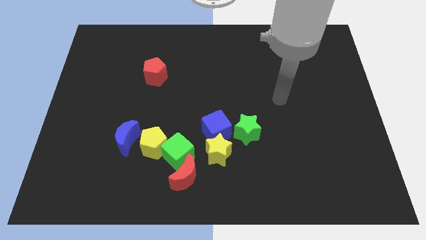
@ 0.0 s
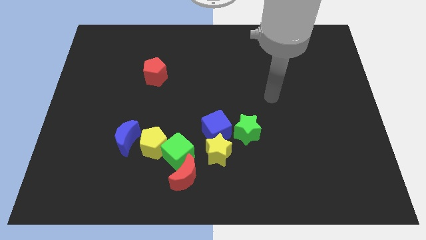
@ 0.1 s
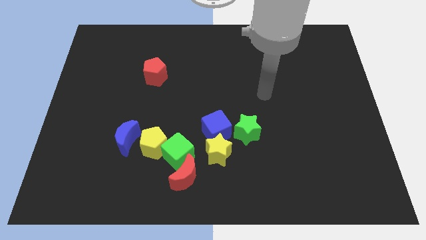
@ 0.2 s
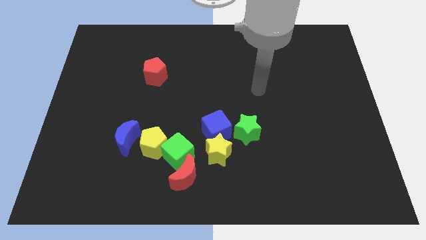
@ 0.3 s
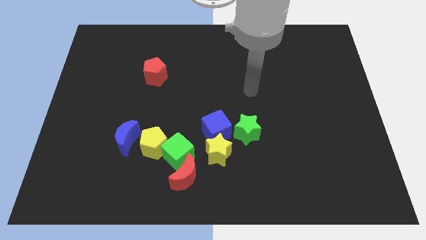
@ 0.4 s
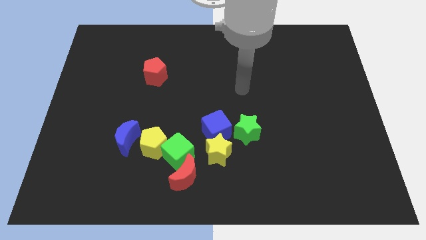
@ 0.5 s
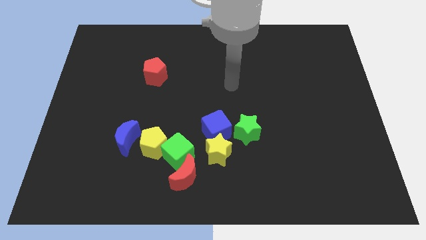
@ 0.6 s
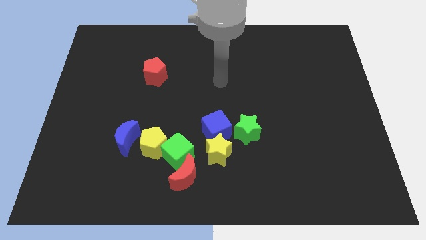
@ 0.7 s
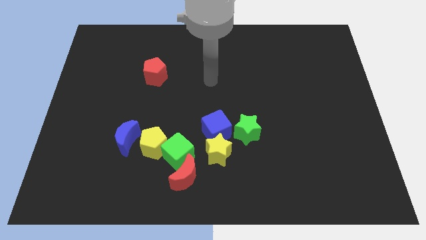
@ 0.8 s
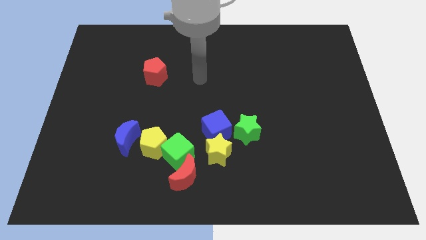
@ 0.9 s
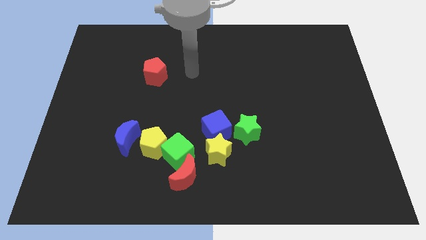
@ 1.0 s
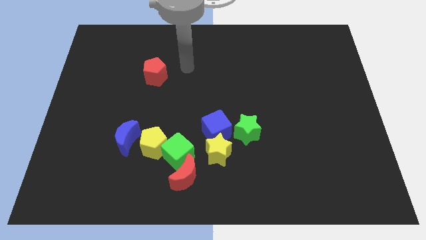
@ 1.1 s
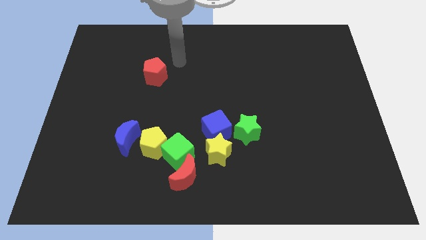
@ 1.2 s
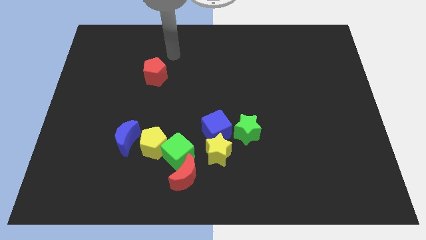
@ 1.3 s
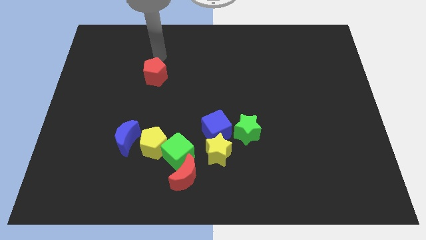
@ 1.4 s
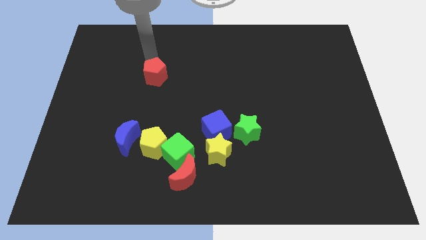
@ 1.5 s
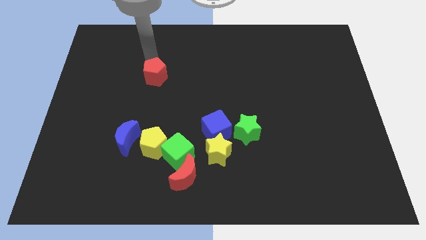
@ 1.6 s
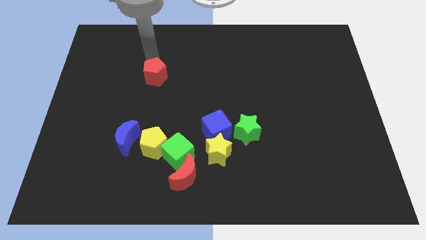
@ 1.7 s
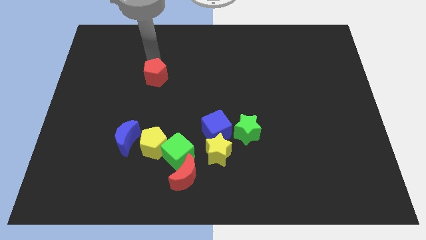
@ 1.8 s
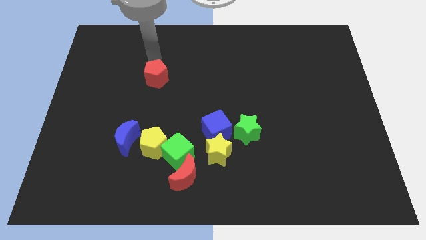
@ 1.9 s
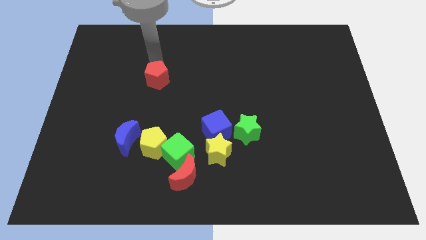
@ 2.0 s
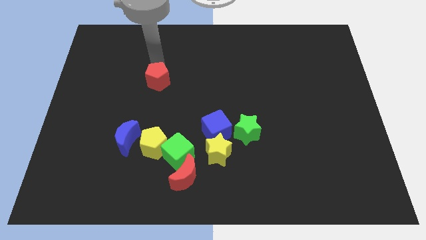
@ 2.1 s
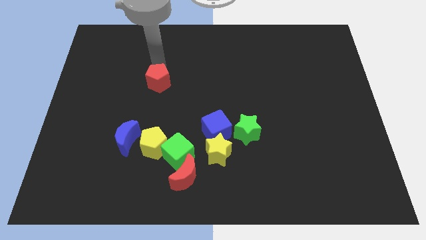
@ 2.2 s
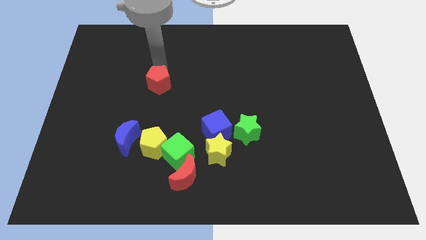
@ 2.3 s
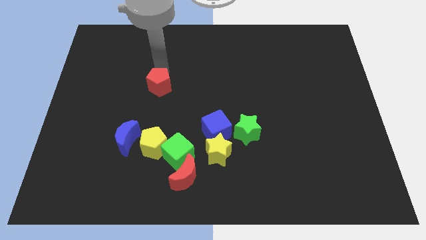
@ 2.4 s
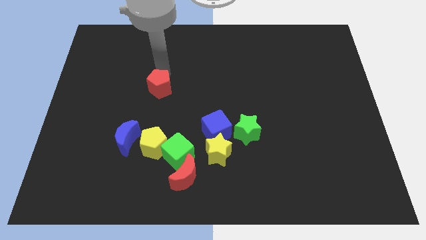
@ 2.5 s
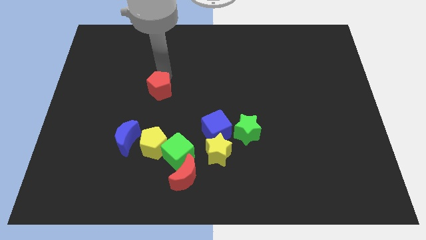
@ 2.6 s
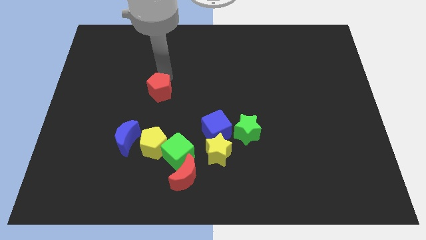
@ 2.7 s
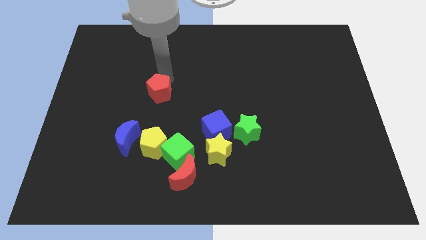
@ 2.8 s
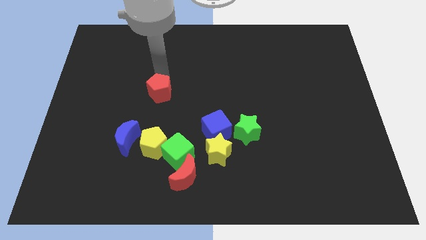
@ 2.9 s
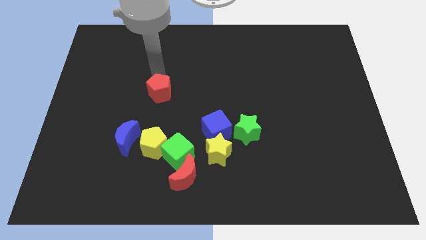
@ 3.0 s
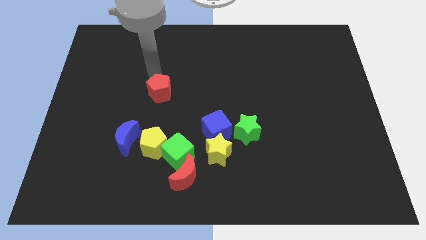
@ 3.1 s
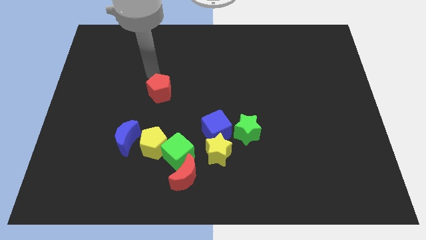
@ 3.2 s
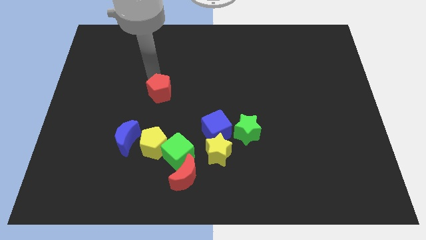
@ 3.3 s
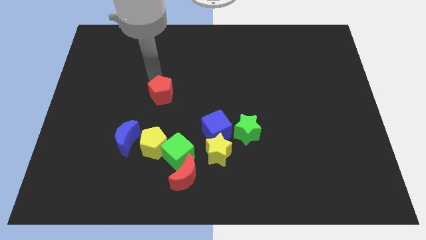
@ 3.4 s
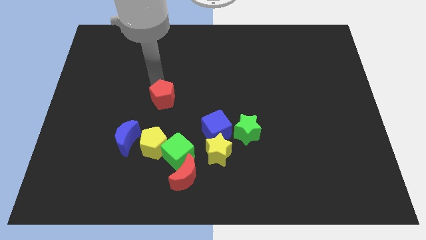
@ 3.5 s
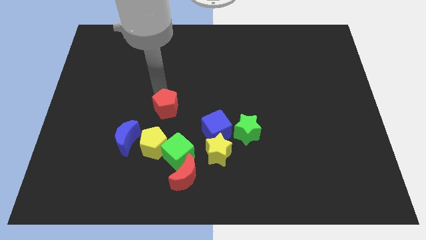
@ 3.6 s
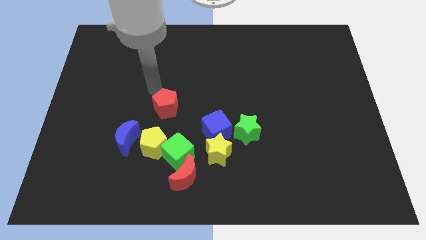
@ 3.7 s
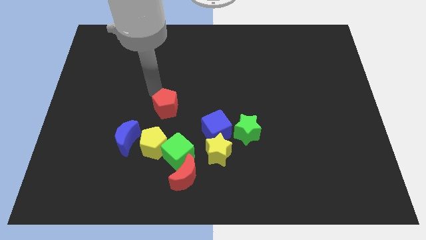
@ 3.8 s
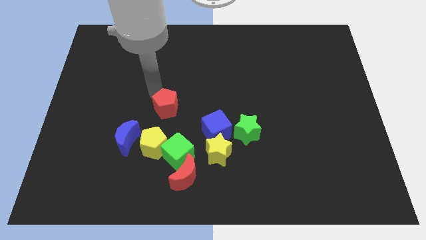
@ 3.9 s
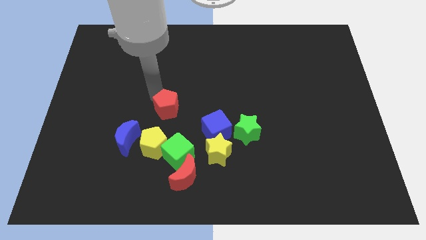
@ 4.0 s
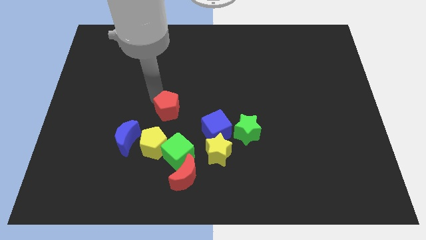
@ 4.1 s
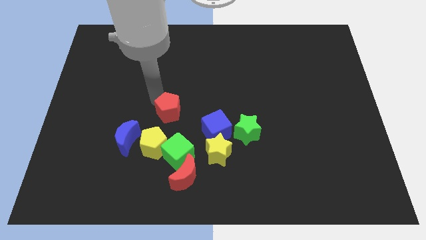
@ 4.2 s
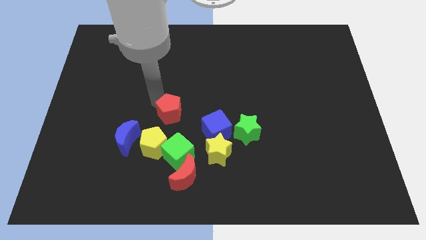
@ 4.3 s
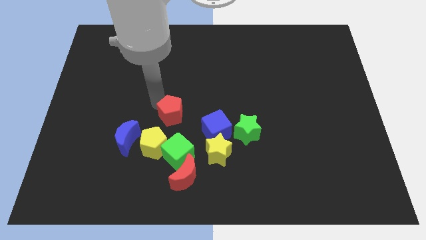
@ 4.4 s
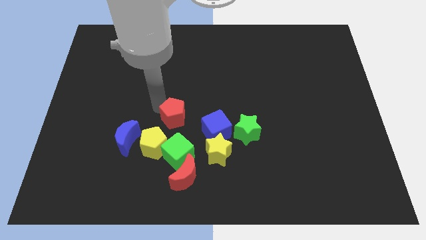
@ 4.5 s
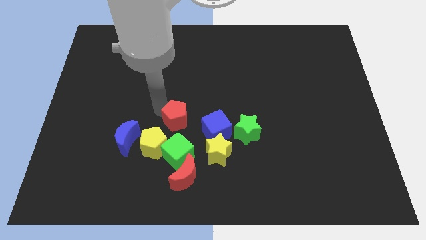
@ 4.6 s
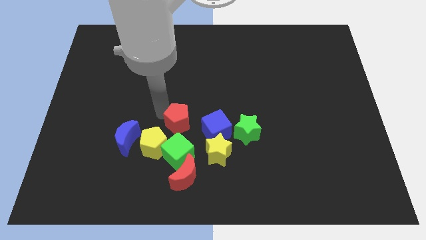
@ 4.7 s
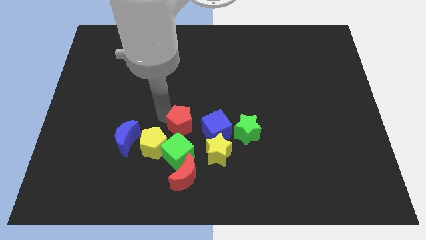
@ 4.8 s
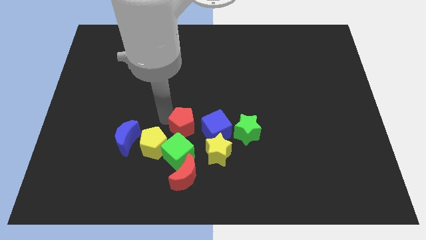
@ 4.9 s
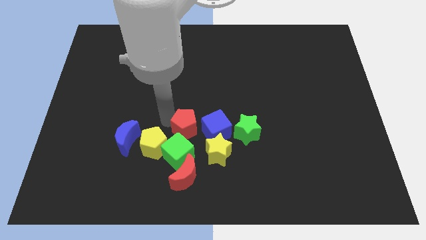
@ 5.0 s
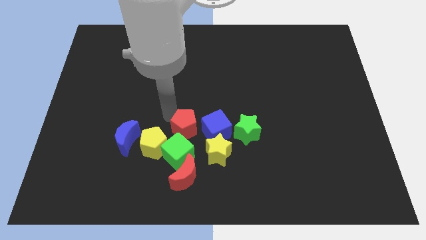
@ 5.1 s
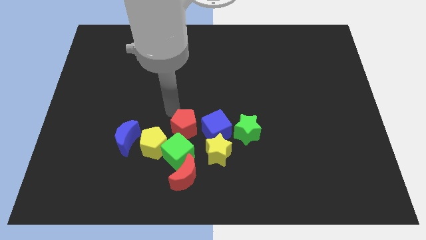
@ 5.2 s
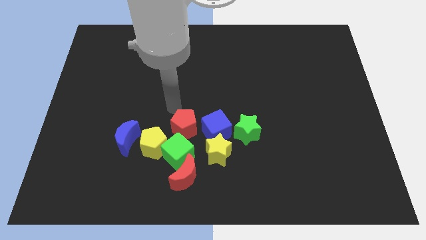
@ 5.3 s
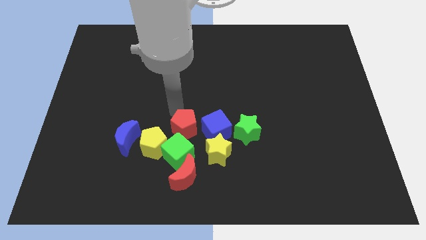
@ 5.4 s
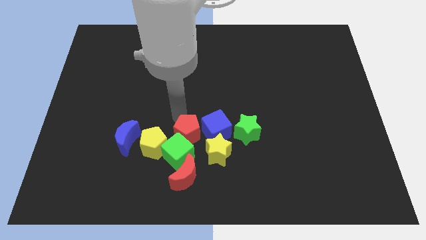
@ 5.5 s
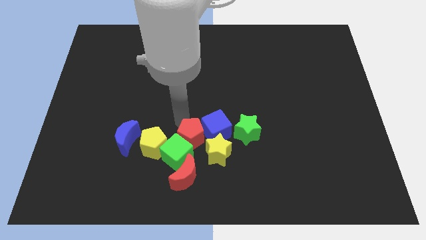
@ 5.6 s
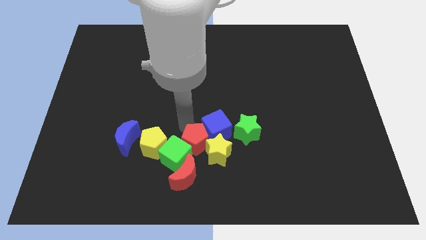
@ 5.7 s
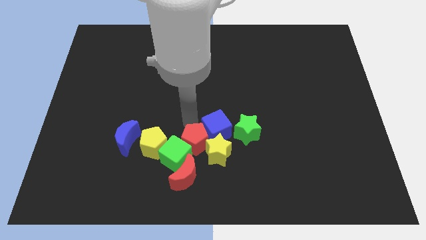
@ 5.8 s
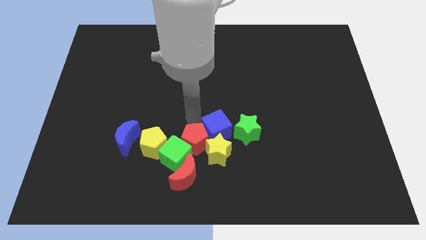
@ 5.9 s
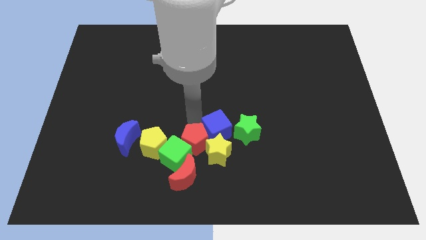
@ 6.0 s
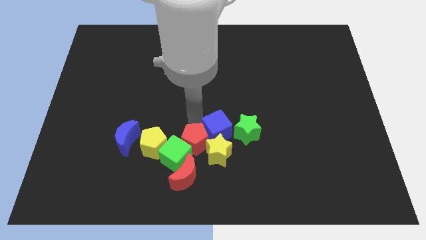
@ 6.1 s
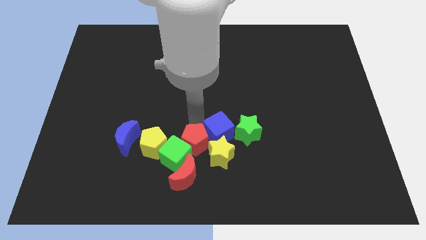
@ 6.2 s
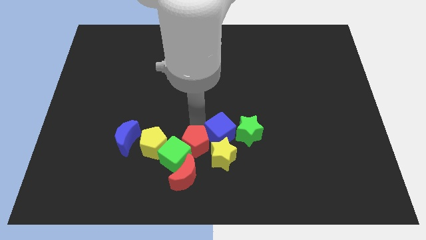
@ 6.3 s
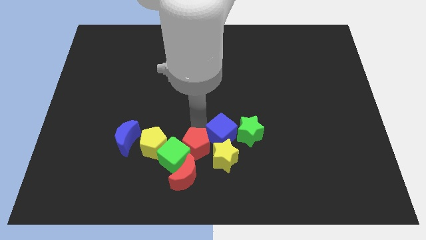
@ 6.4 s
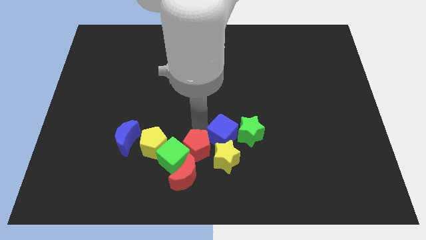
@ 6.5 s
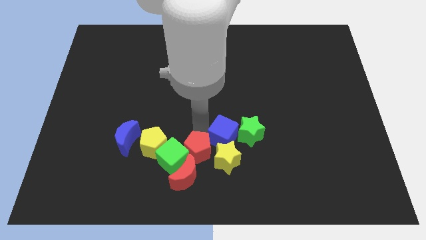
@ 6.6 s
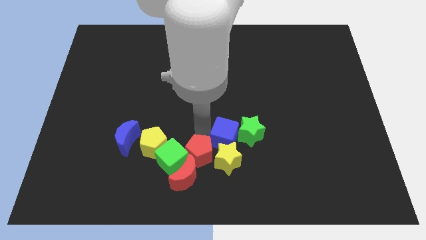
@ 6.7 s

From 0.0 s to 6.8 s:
slide the red pentagon to the bottom side
